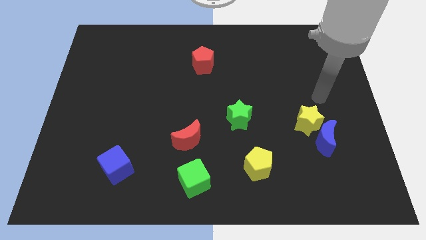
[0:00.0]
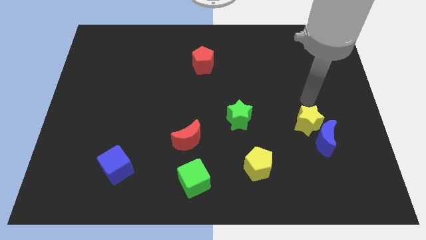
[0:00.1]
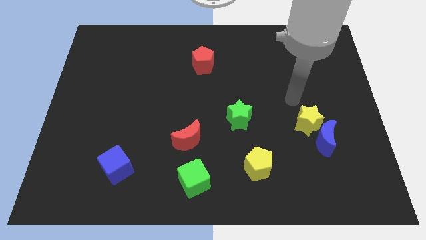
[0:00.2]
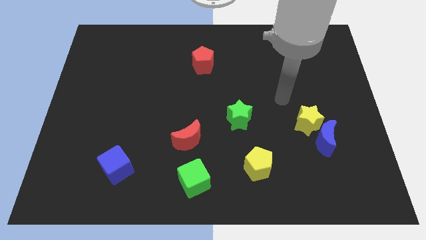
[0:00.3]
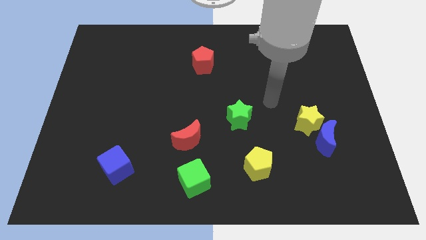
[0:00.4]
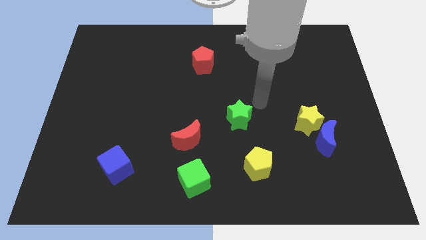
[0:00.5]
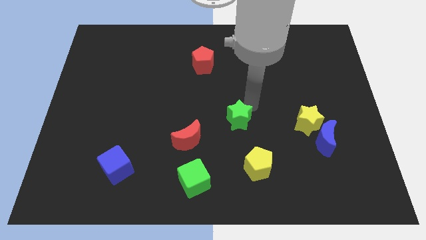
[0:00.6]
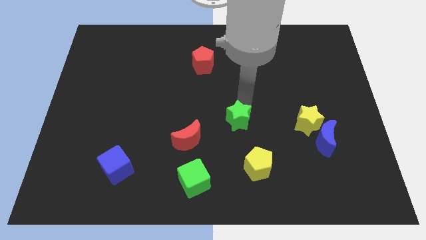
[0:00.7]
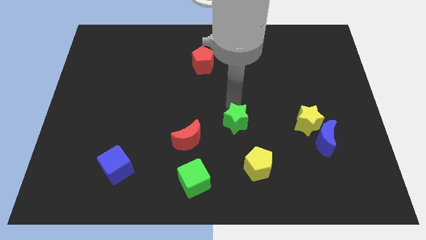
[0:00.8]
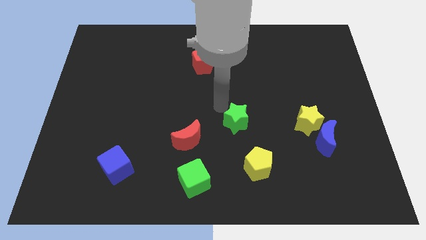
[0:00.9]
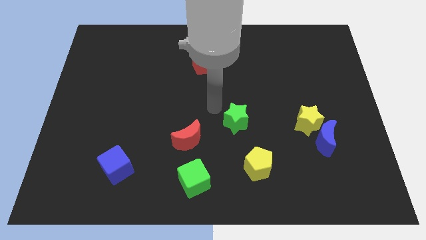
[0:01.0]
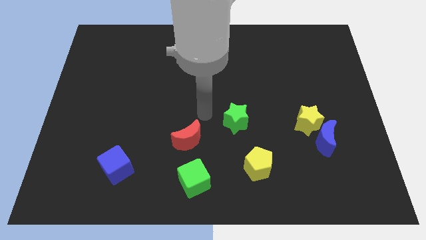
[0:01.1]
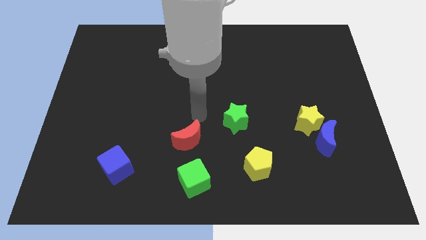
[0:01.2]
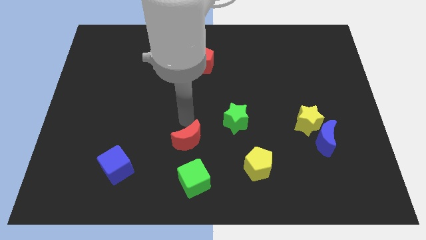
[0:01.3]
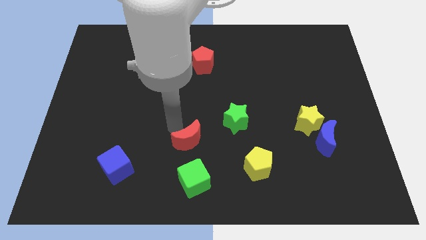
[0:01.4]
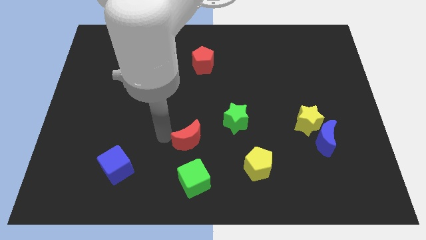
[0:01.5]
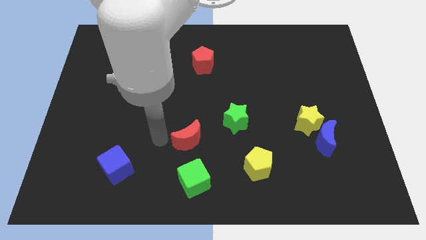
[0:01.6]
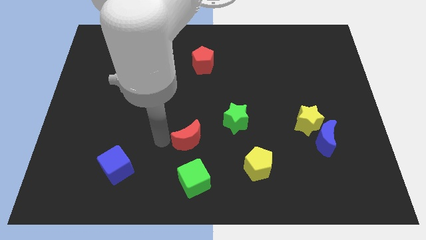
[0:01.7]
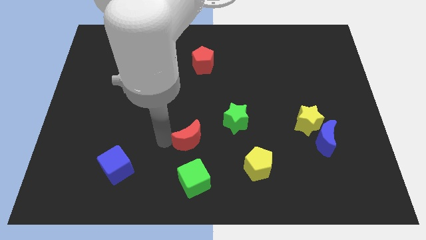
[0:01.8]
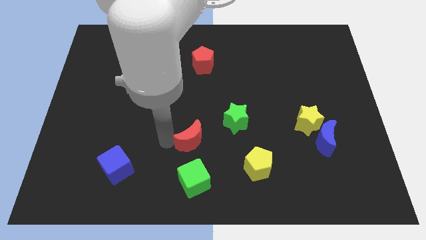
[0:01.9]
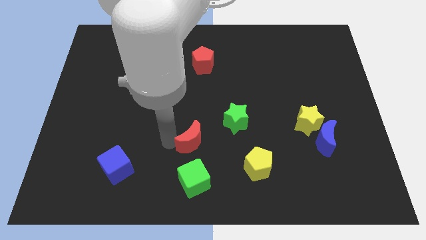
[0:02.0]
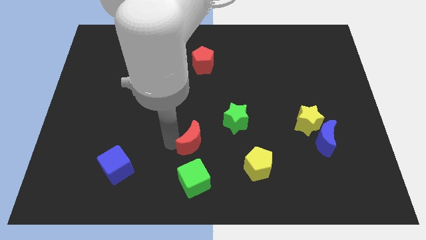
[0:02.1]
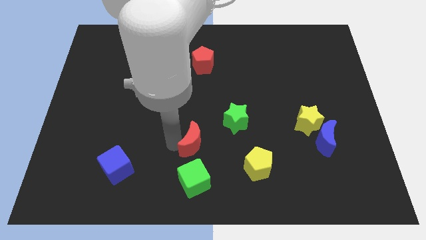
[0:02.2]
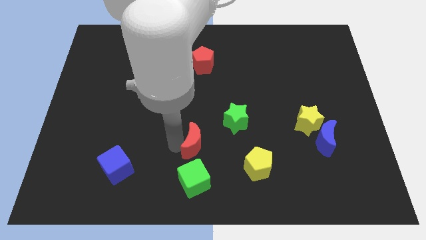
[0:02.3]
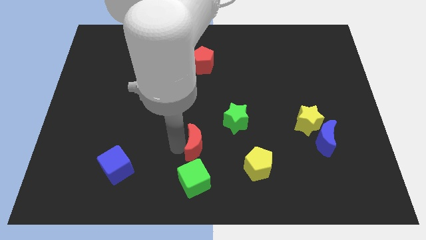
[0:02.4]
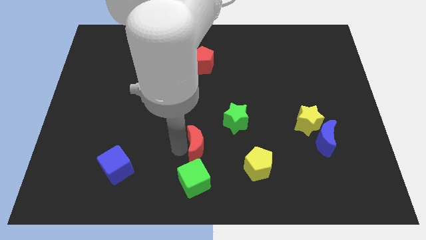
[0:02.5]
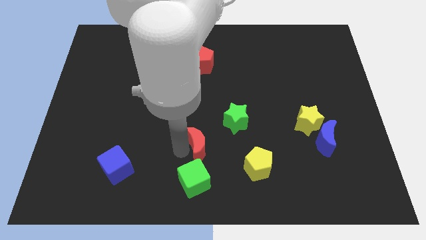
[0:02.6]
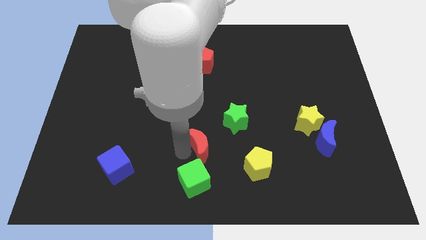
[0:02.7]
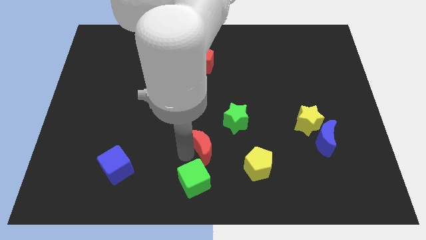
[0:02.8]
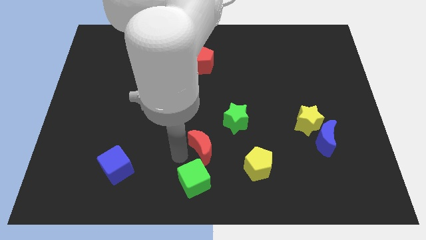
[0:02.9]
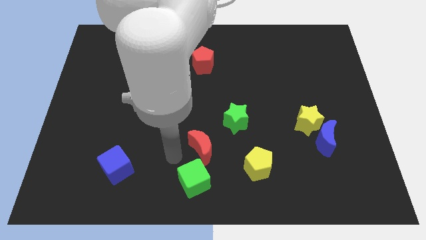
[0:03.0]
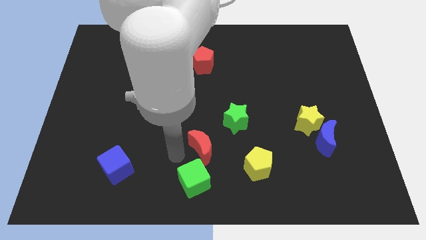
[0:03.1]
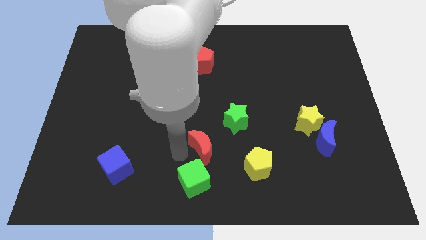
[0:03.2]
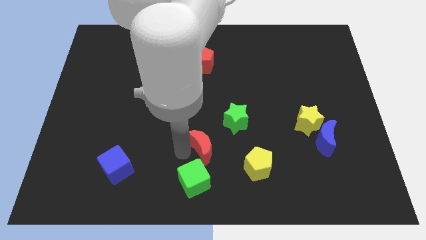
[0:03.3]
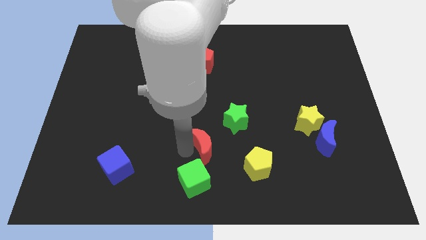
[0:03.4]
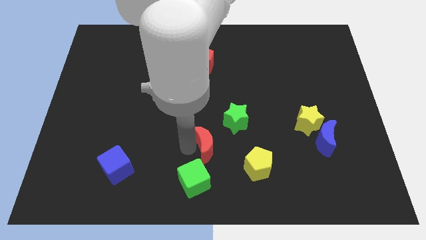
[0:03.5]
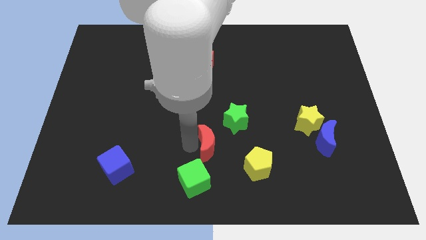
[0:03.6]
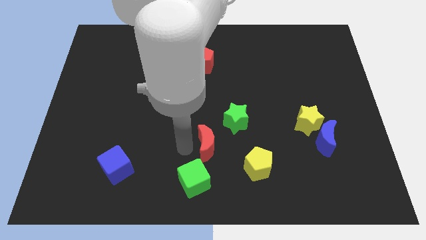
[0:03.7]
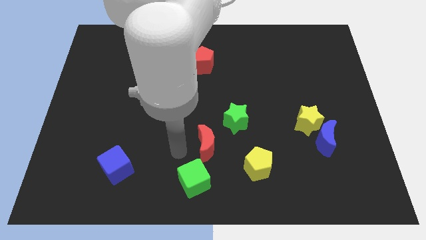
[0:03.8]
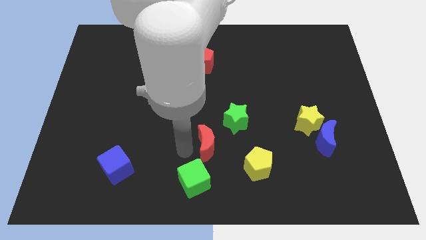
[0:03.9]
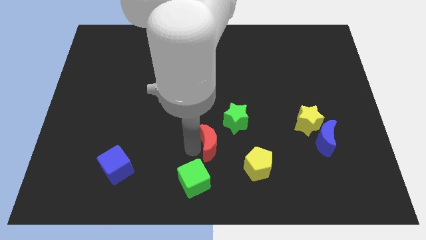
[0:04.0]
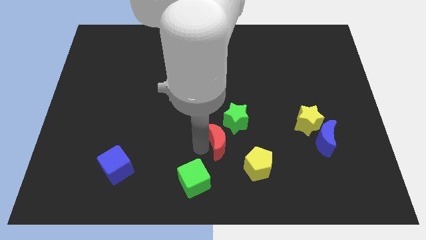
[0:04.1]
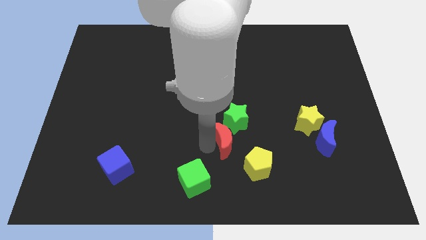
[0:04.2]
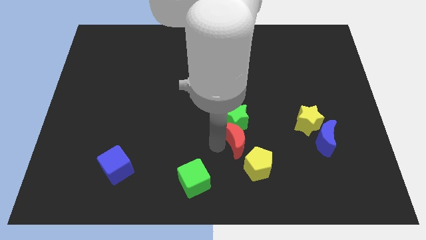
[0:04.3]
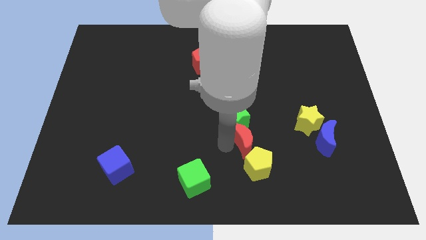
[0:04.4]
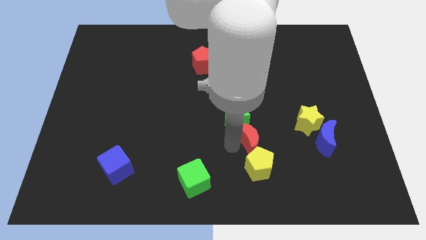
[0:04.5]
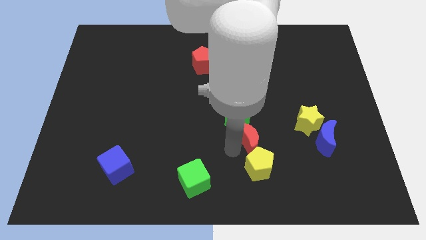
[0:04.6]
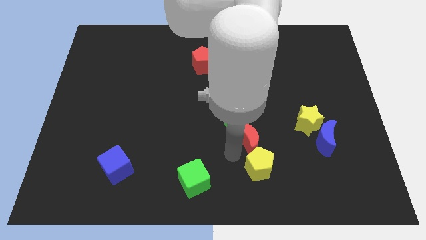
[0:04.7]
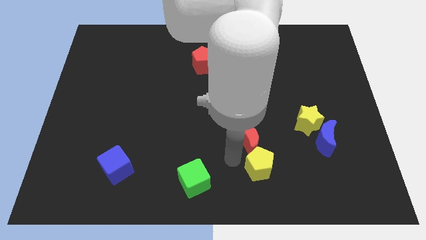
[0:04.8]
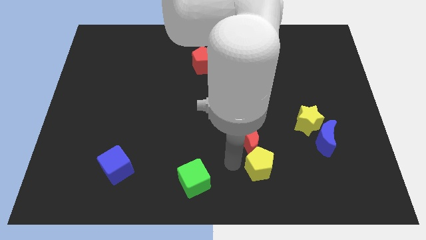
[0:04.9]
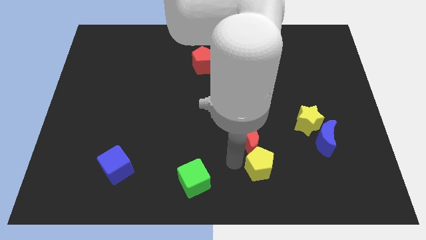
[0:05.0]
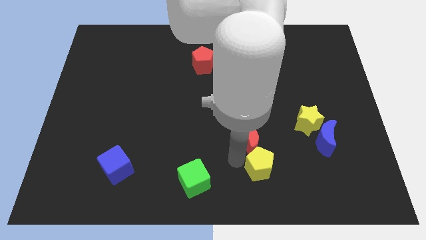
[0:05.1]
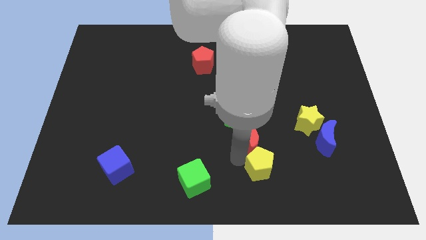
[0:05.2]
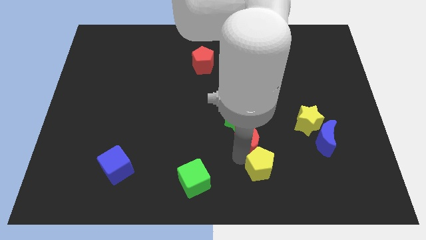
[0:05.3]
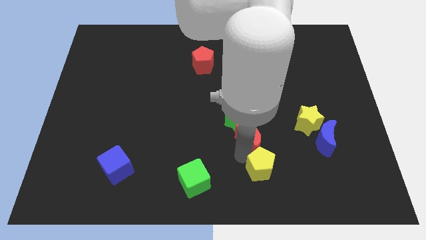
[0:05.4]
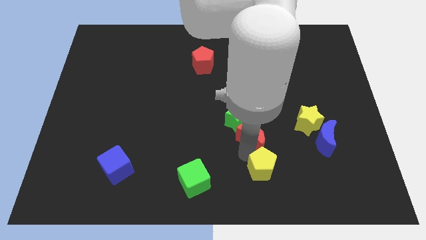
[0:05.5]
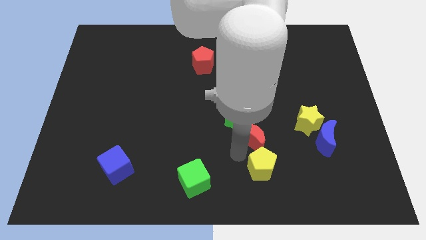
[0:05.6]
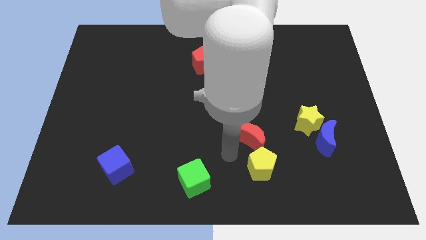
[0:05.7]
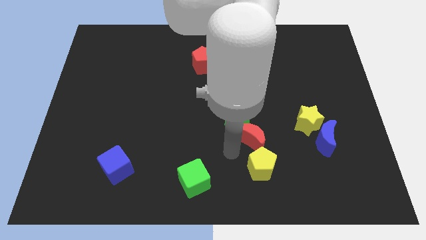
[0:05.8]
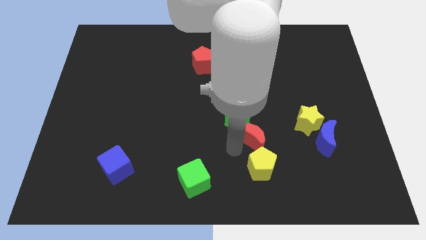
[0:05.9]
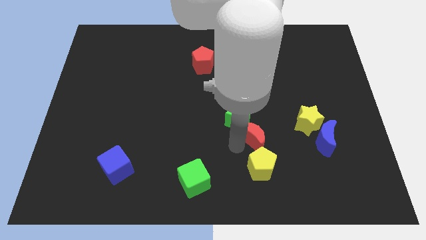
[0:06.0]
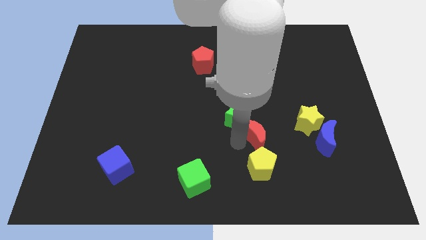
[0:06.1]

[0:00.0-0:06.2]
put the red moon right of the green star
